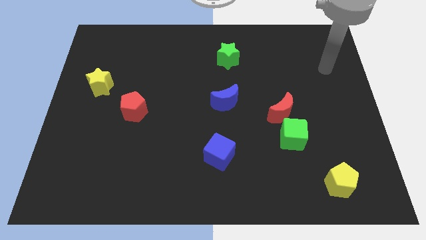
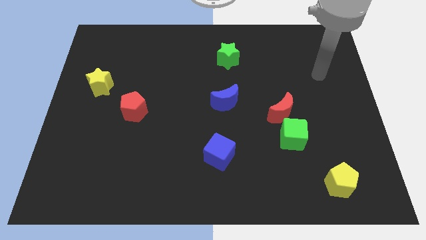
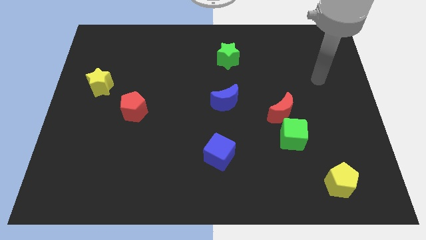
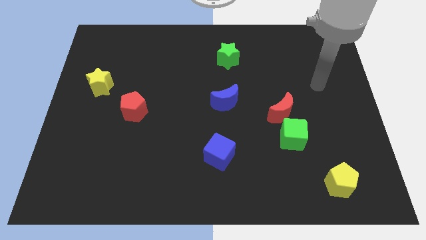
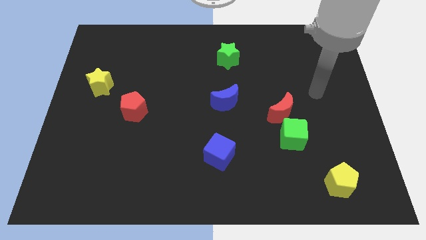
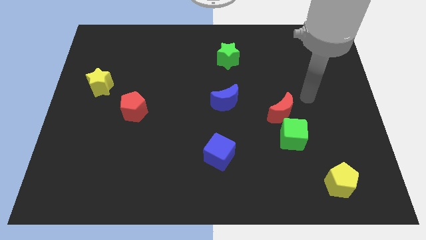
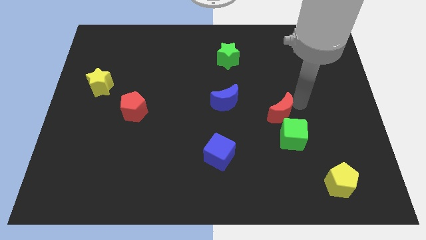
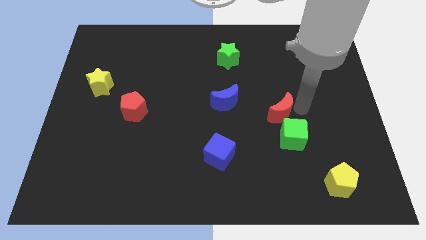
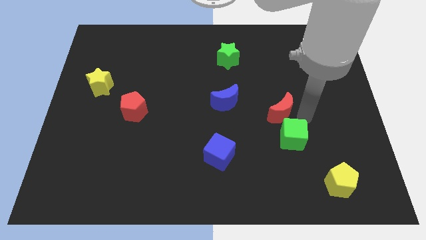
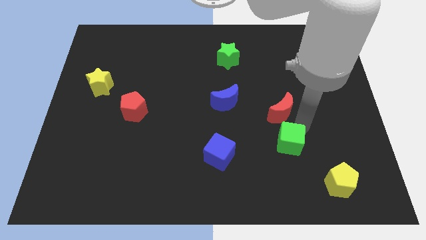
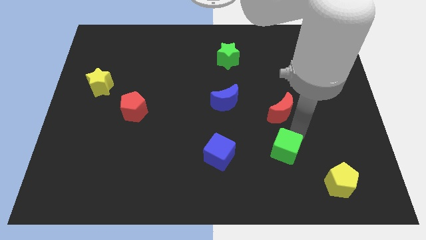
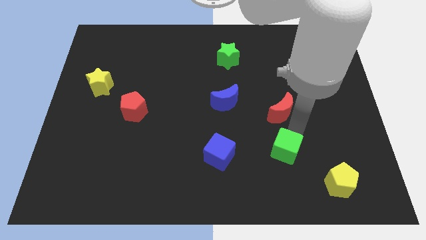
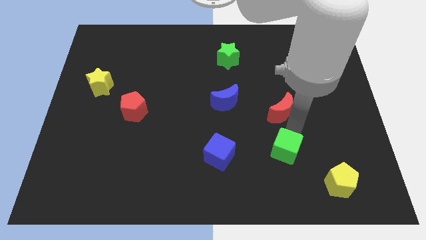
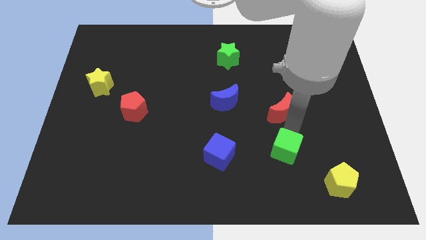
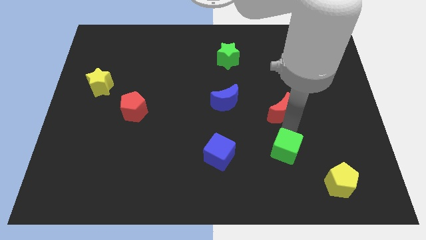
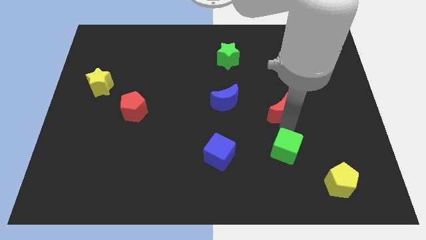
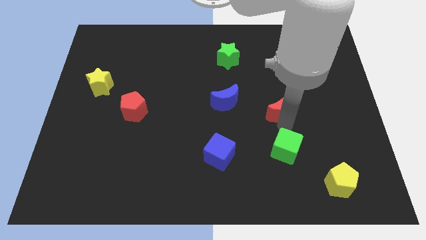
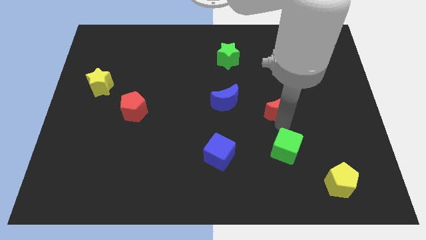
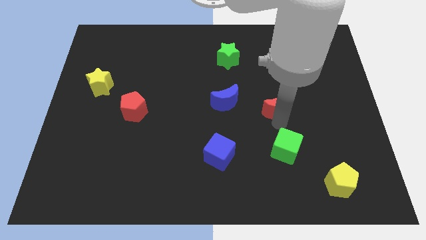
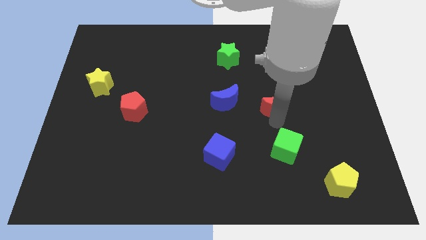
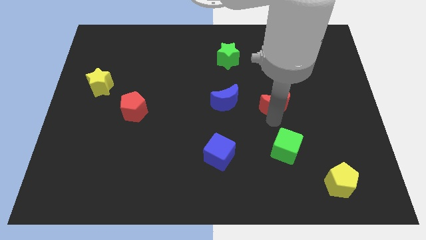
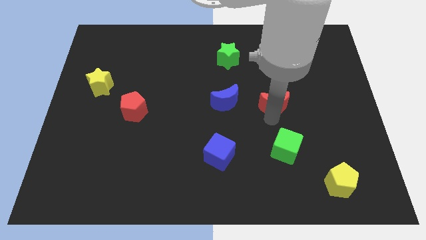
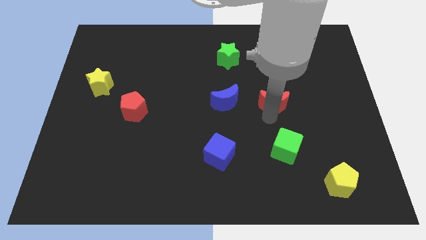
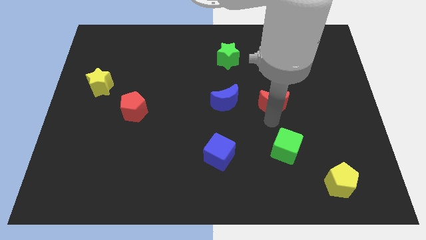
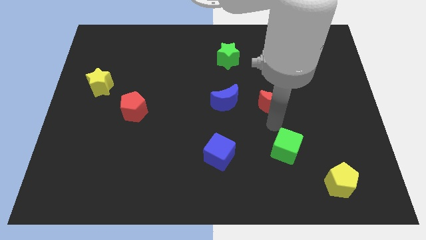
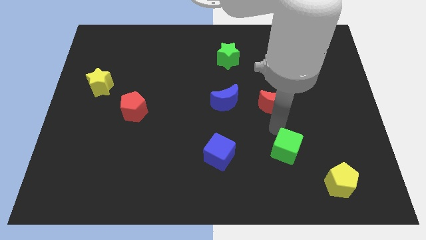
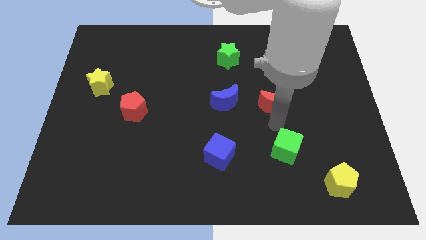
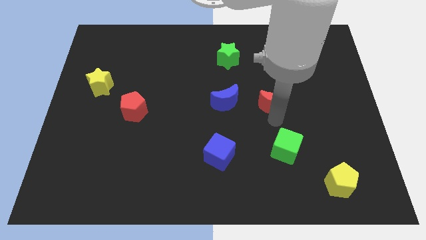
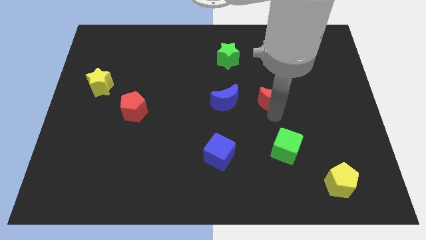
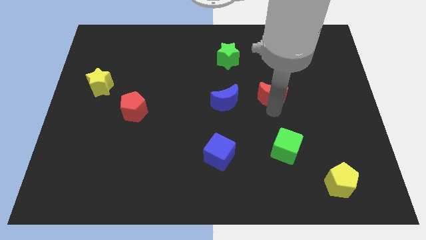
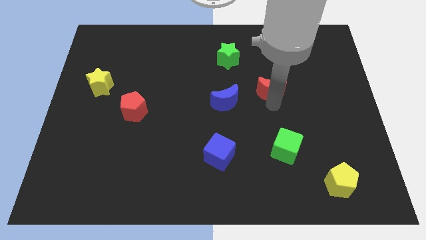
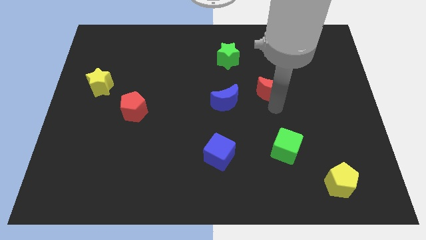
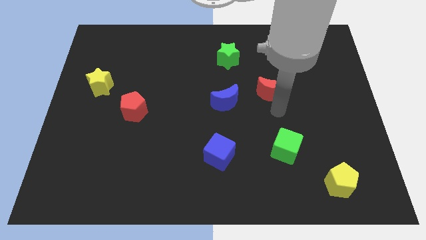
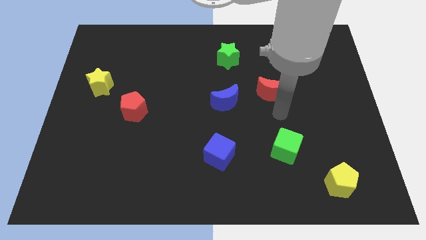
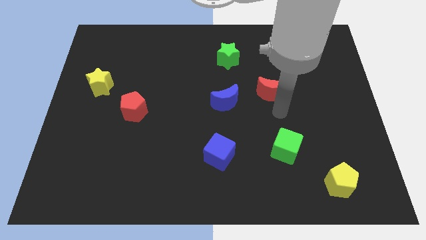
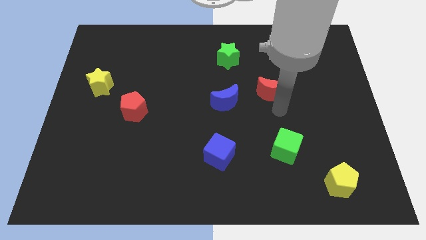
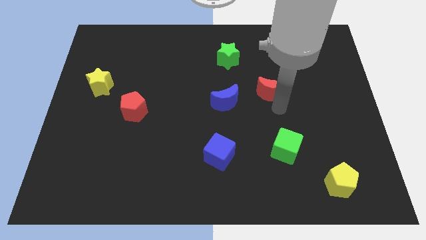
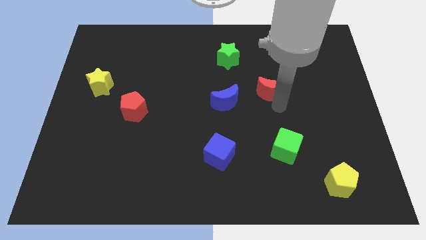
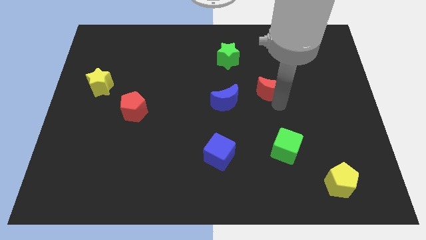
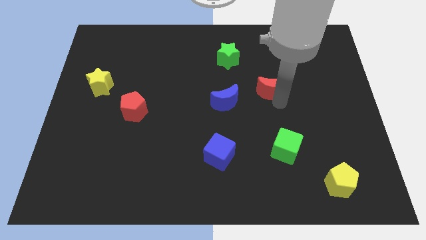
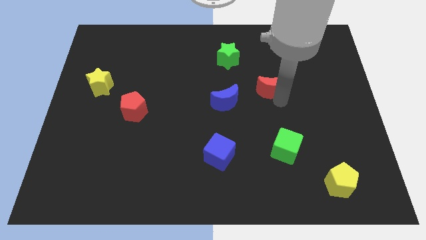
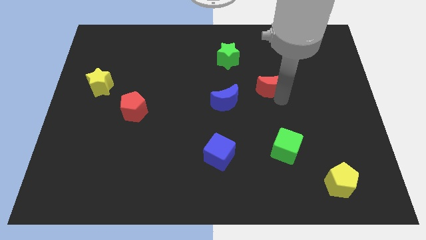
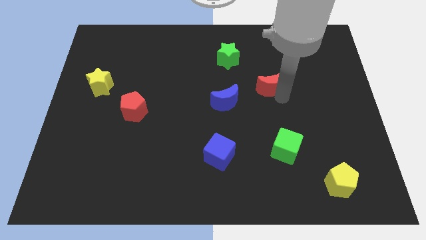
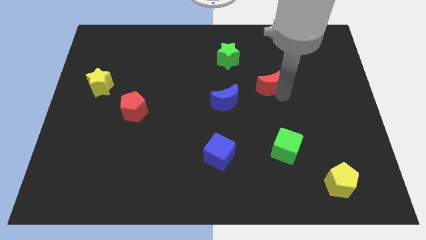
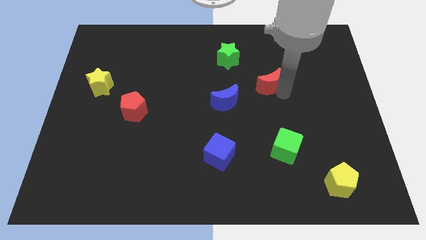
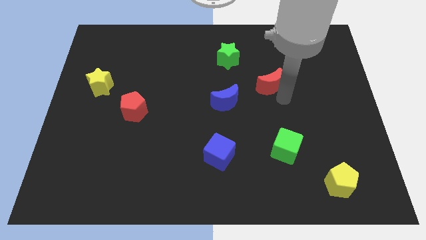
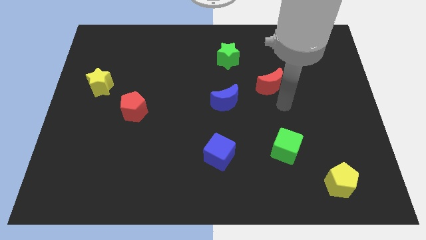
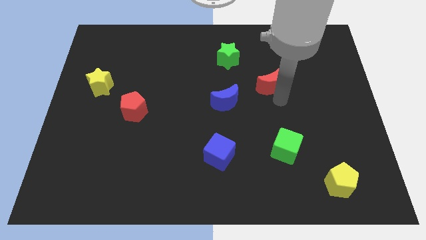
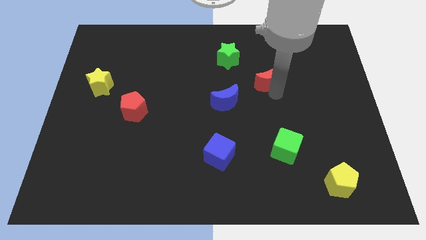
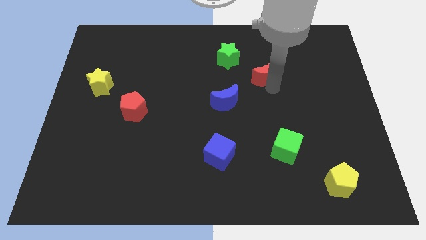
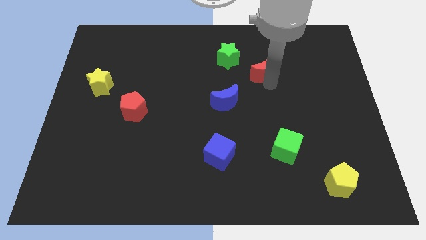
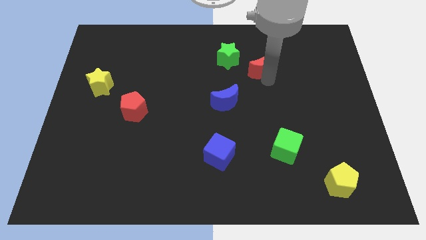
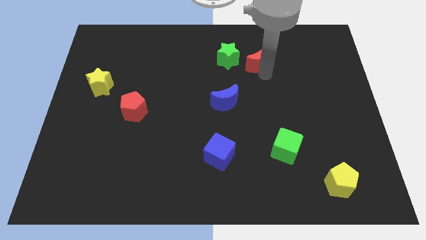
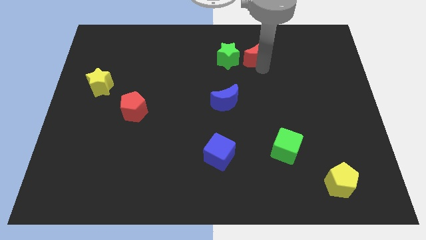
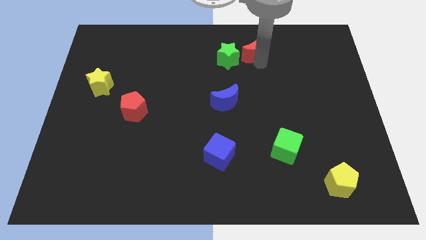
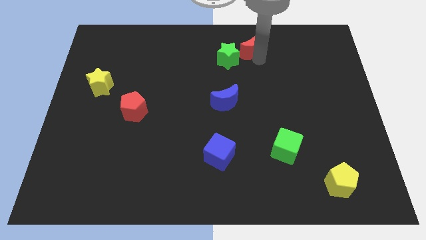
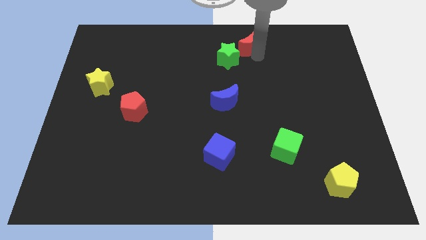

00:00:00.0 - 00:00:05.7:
put the red moon to the towards your base

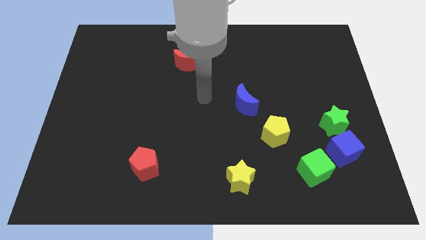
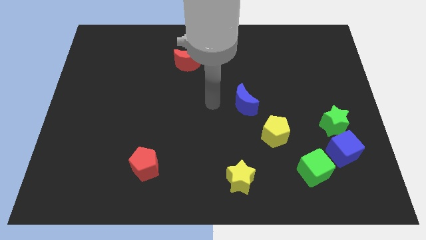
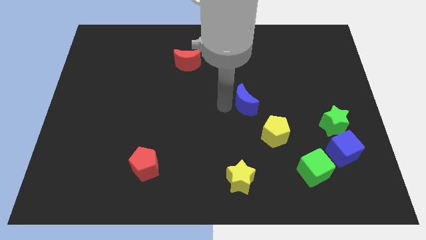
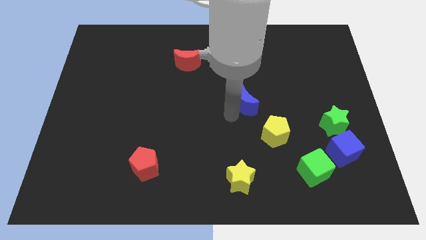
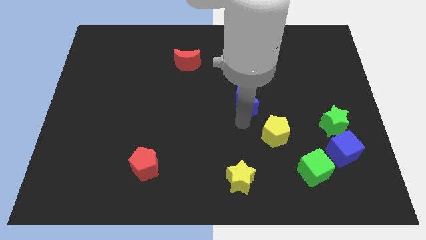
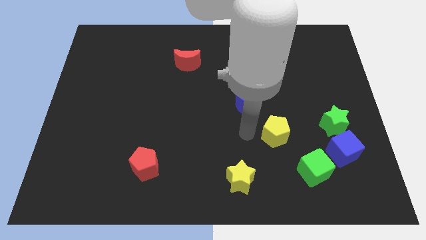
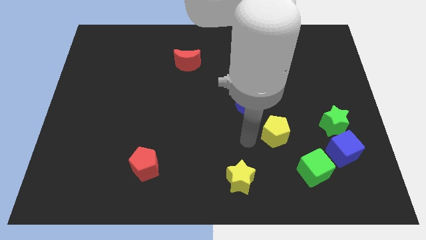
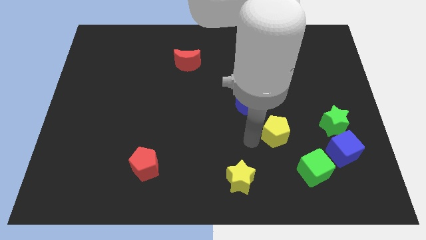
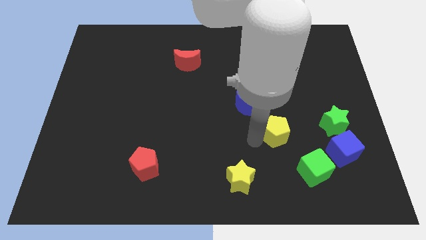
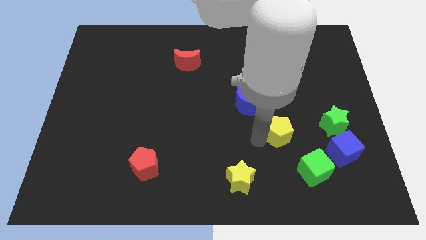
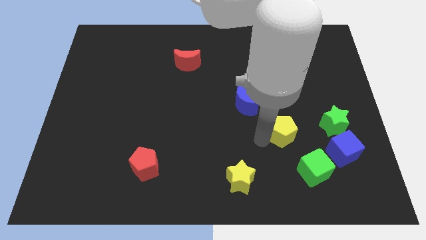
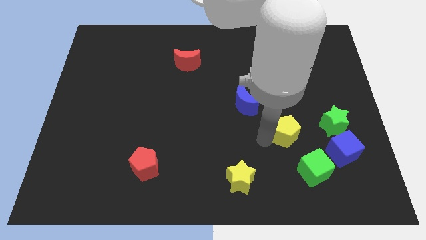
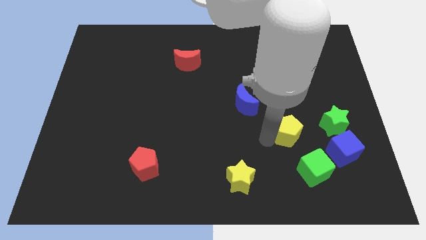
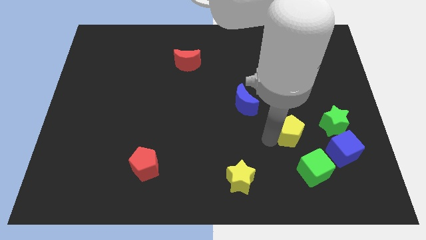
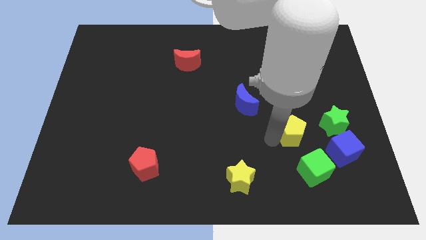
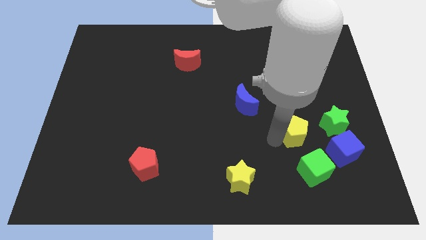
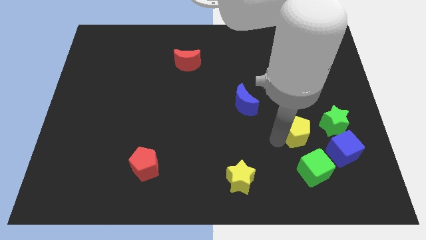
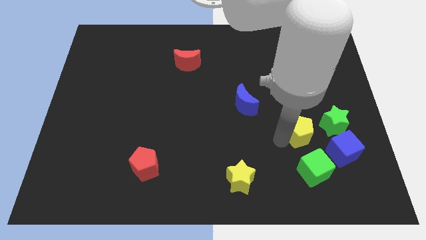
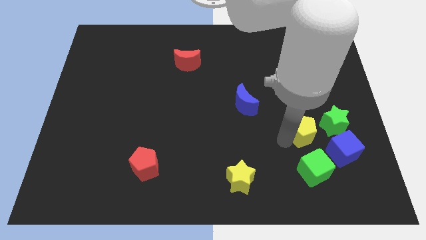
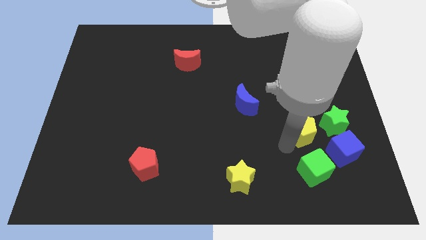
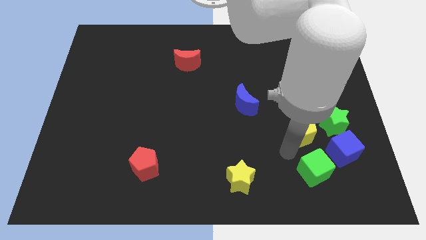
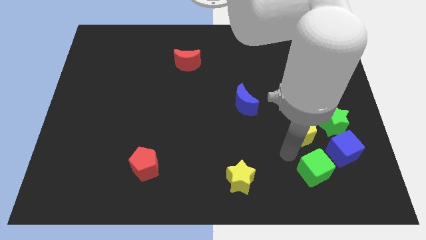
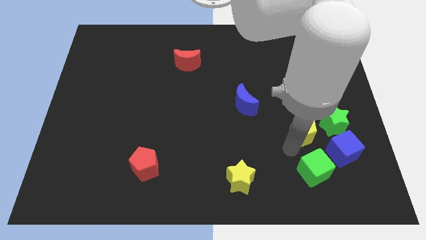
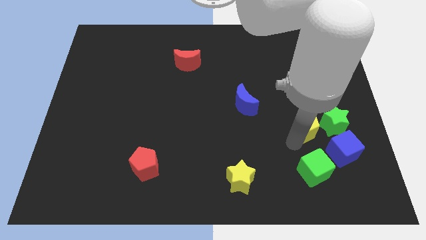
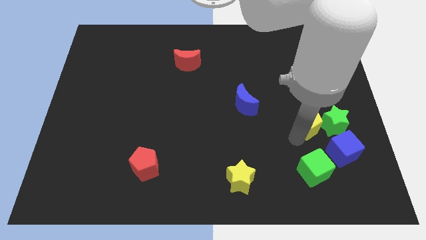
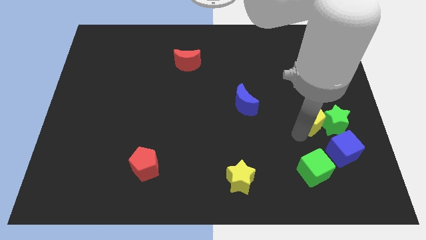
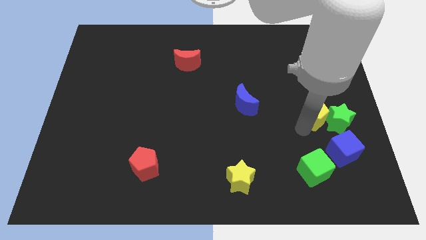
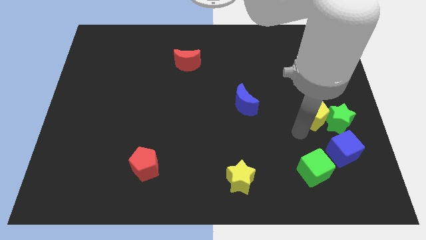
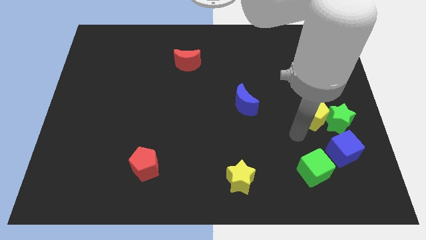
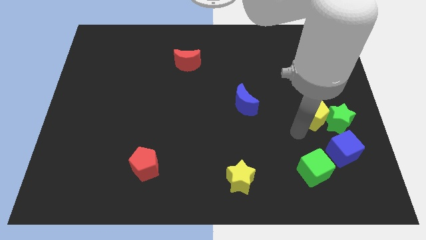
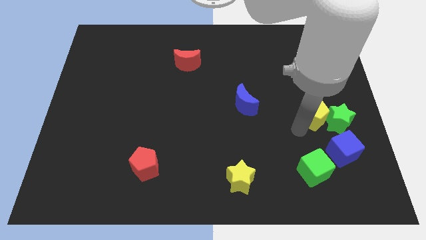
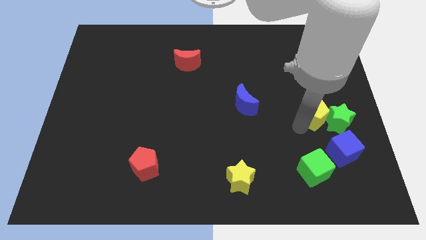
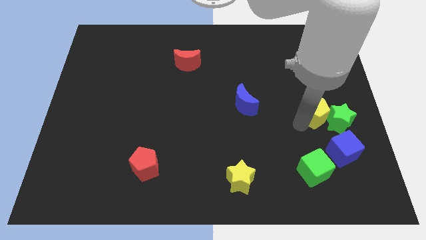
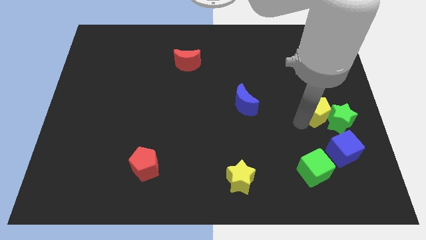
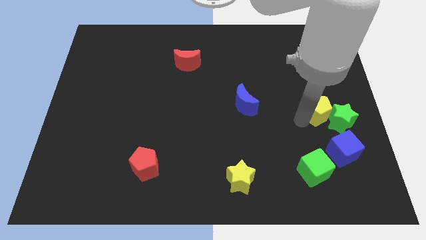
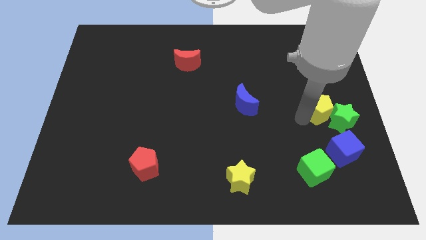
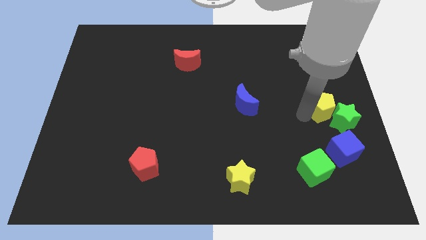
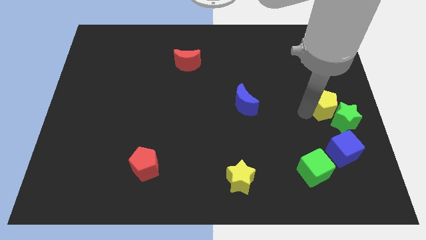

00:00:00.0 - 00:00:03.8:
put the yellow pentagon to the center right
